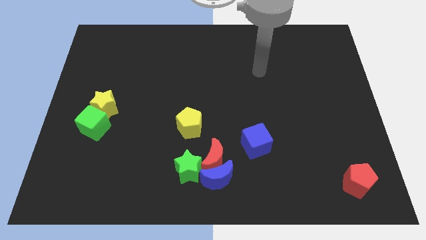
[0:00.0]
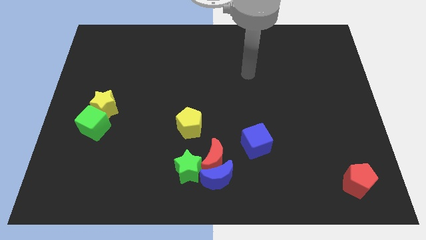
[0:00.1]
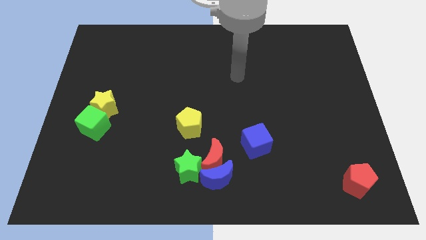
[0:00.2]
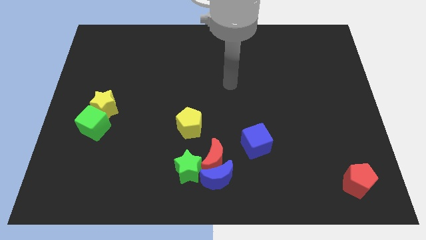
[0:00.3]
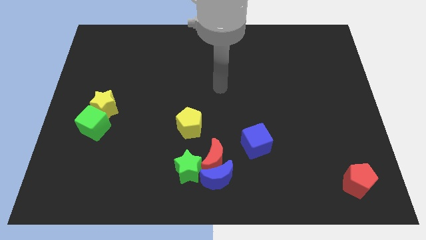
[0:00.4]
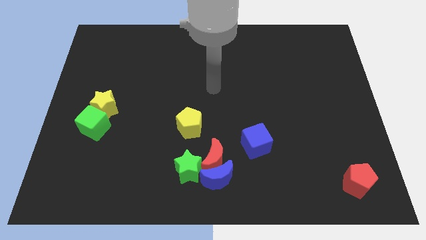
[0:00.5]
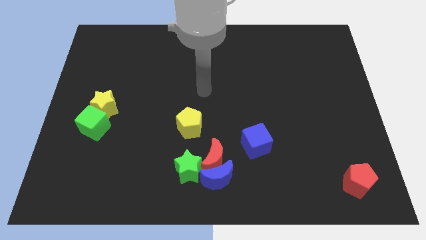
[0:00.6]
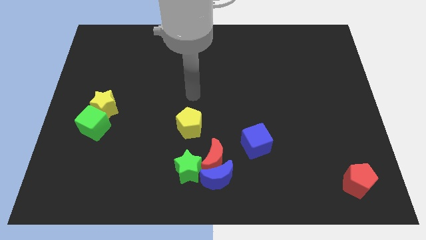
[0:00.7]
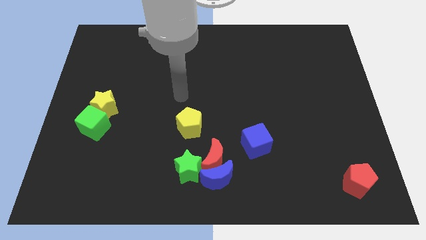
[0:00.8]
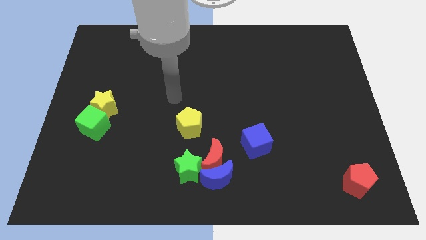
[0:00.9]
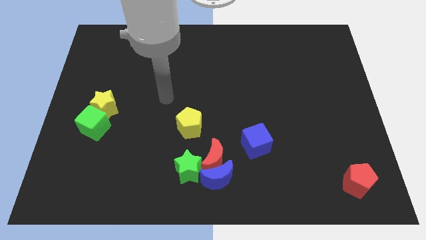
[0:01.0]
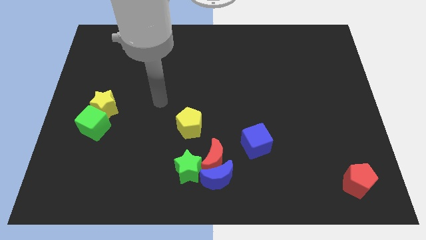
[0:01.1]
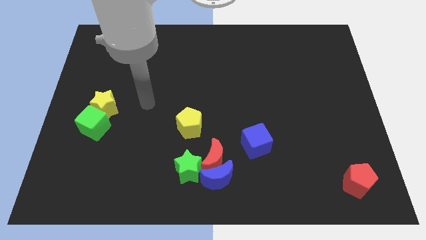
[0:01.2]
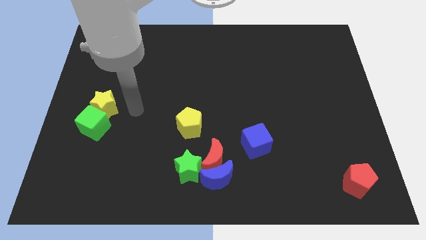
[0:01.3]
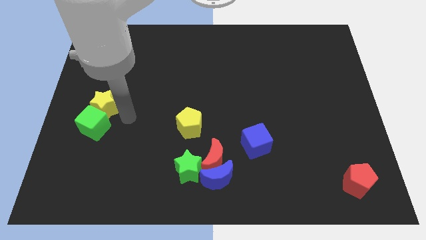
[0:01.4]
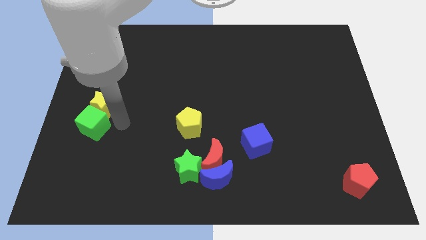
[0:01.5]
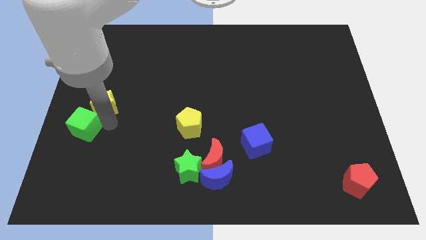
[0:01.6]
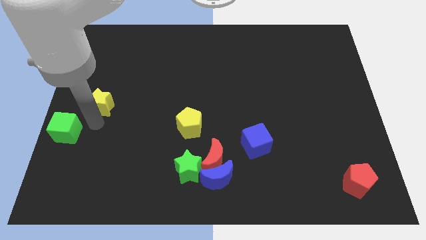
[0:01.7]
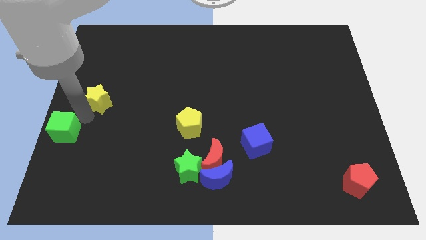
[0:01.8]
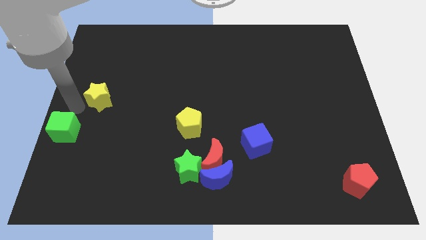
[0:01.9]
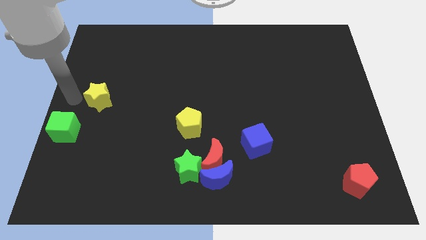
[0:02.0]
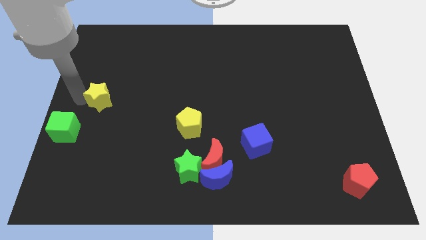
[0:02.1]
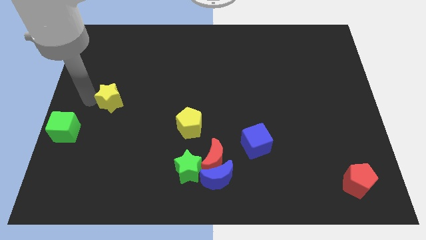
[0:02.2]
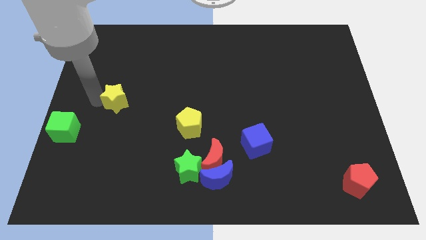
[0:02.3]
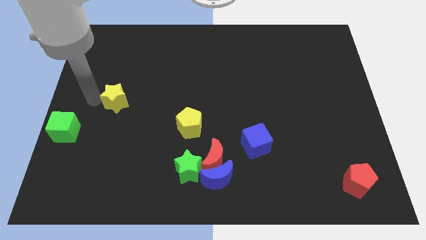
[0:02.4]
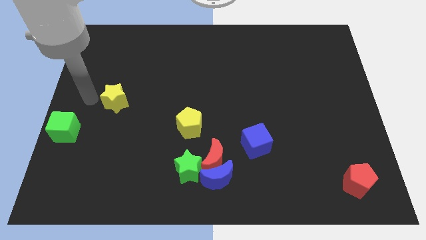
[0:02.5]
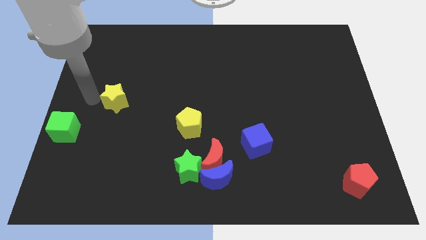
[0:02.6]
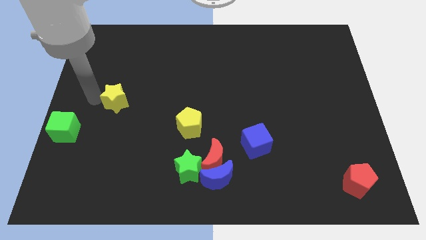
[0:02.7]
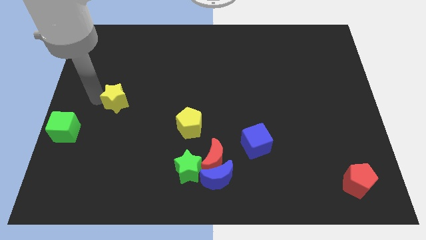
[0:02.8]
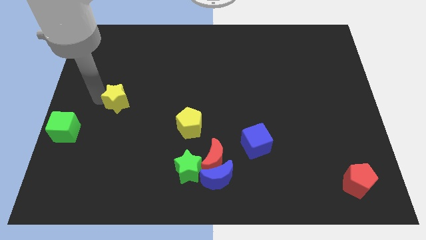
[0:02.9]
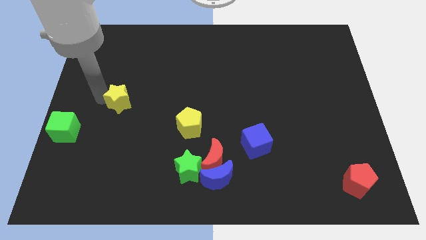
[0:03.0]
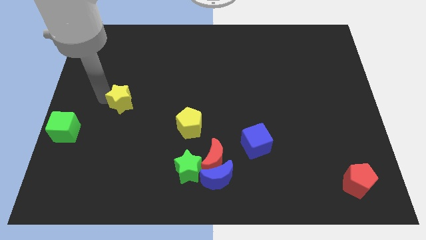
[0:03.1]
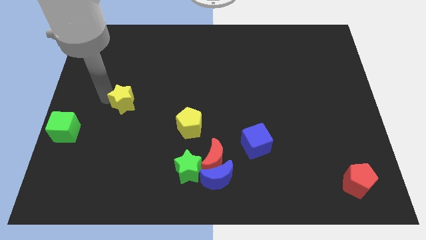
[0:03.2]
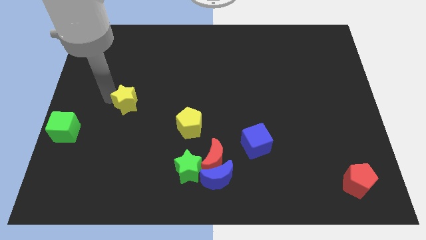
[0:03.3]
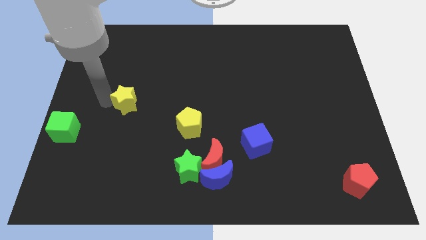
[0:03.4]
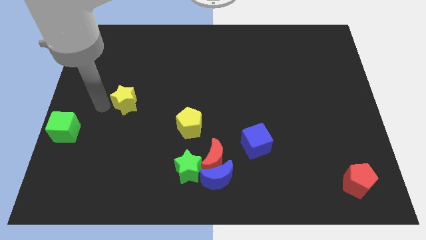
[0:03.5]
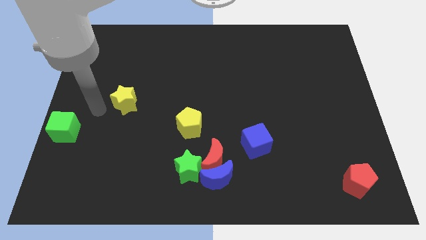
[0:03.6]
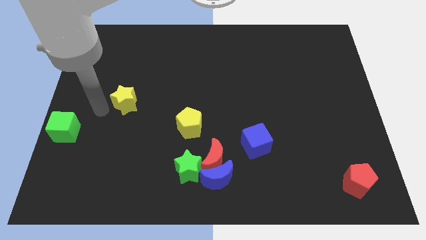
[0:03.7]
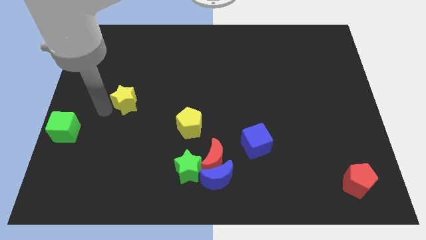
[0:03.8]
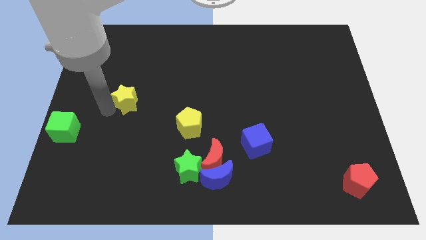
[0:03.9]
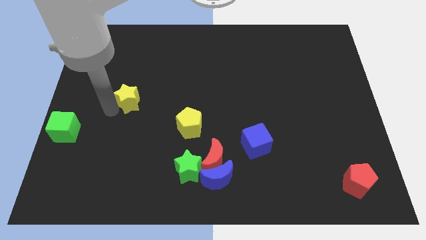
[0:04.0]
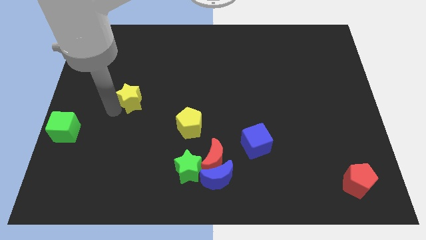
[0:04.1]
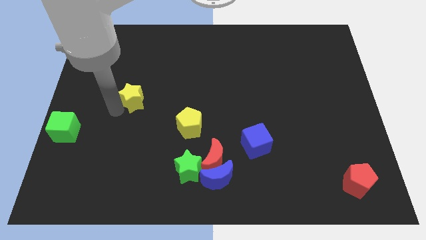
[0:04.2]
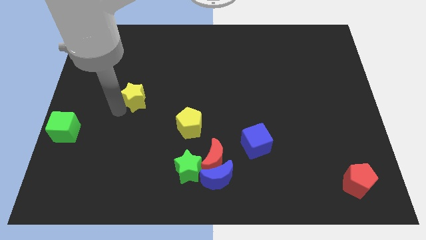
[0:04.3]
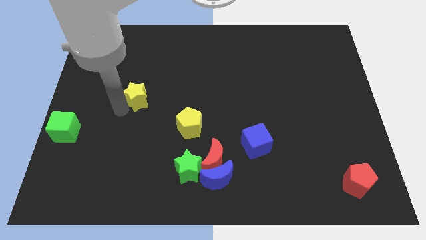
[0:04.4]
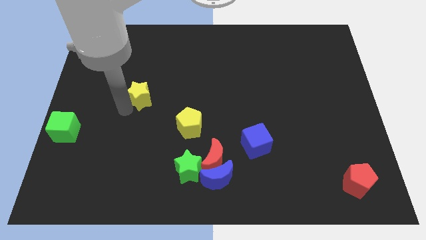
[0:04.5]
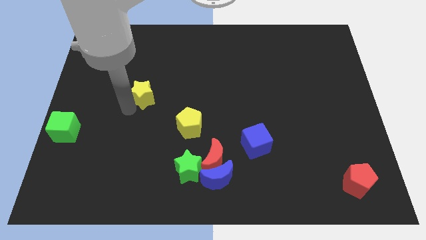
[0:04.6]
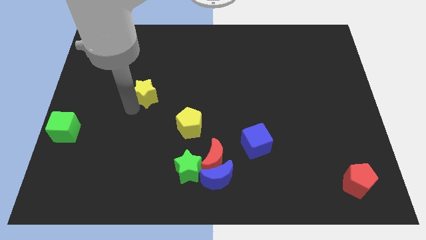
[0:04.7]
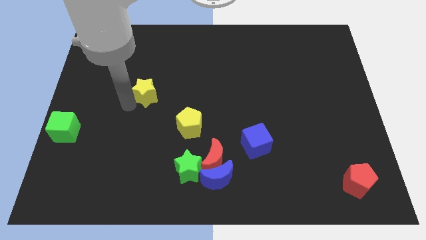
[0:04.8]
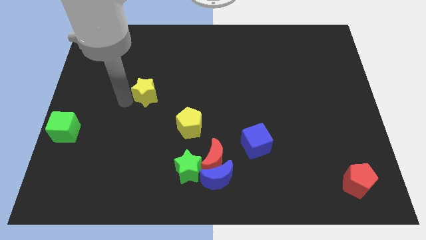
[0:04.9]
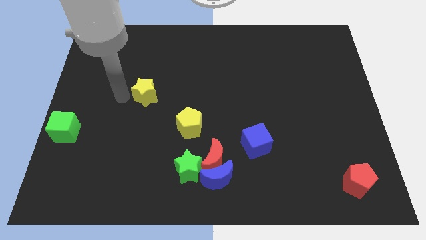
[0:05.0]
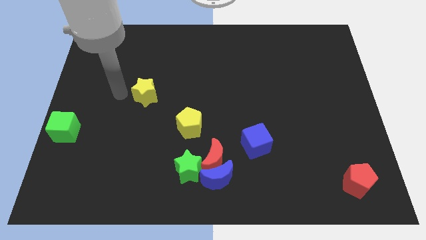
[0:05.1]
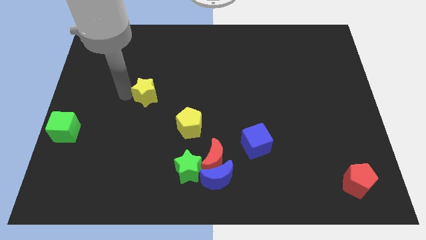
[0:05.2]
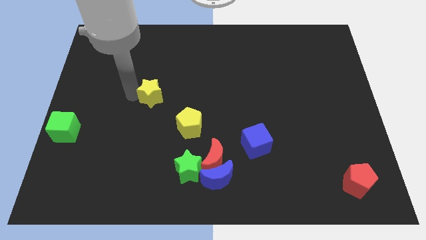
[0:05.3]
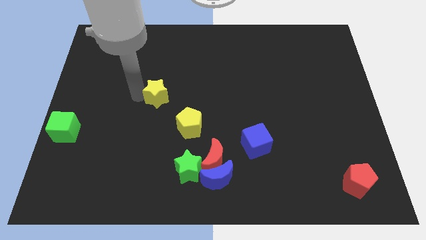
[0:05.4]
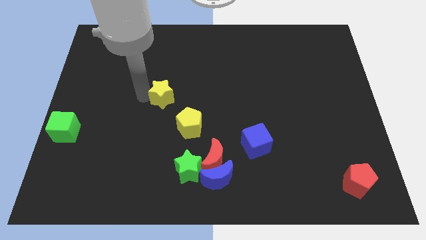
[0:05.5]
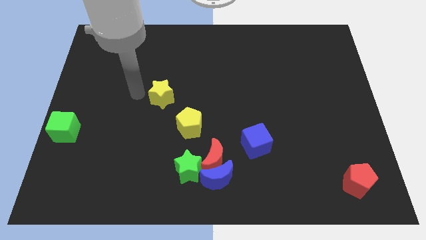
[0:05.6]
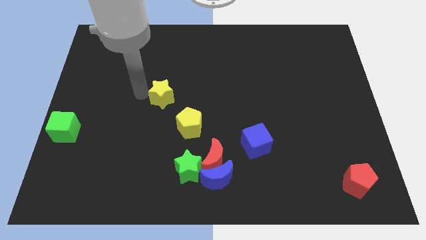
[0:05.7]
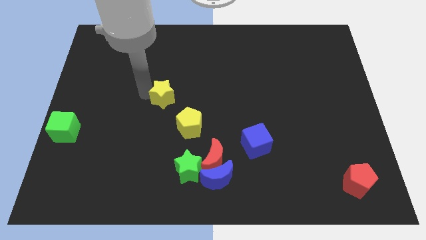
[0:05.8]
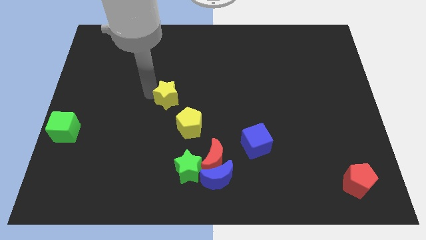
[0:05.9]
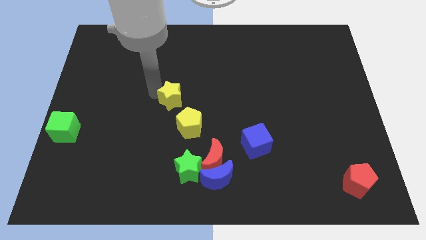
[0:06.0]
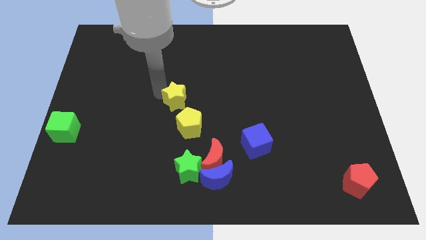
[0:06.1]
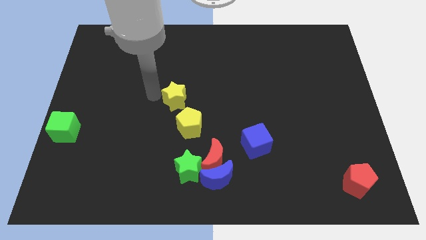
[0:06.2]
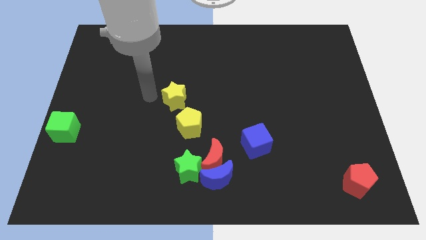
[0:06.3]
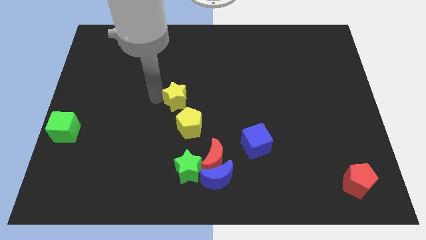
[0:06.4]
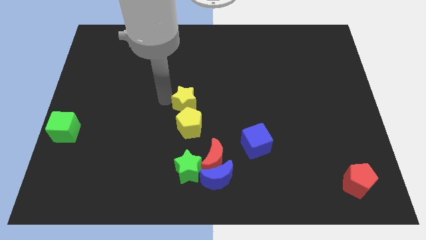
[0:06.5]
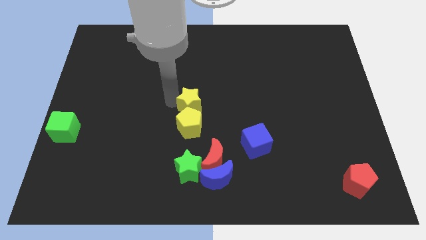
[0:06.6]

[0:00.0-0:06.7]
push the yellow star to the top right side of the yellow pentagon
